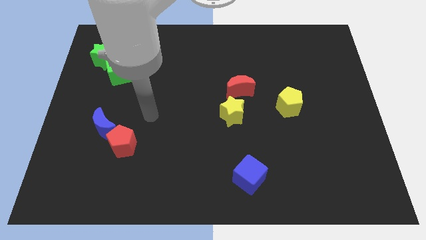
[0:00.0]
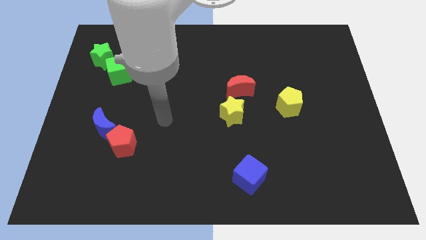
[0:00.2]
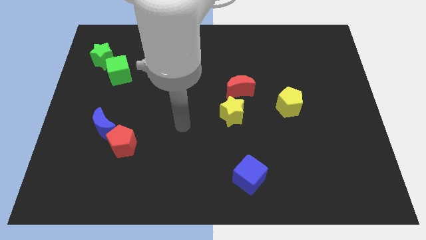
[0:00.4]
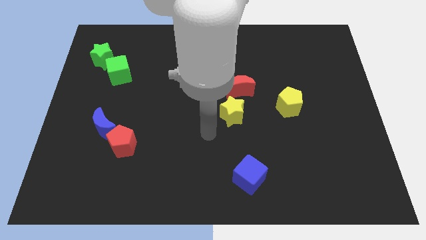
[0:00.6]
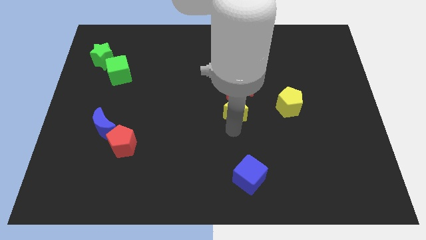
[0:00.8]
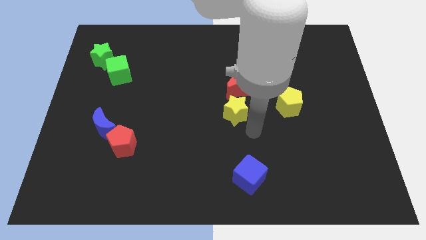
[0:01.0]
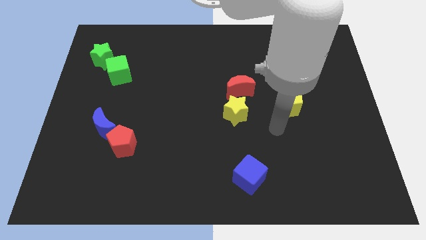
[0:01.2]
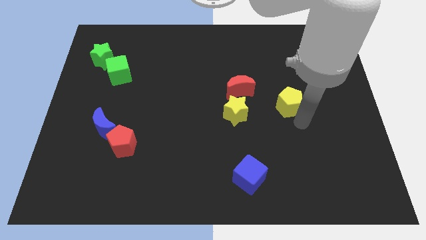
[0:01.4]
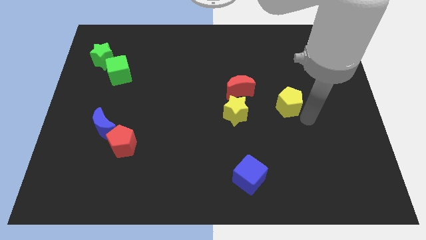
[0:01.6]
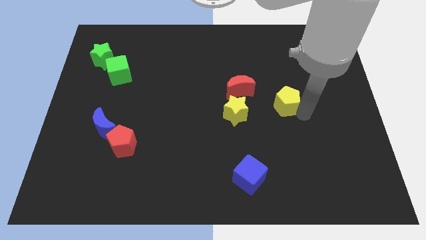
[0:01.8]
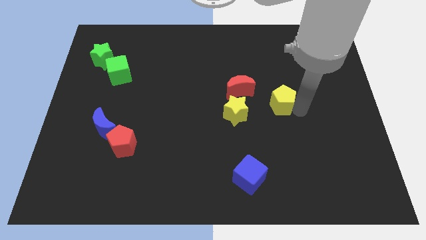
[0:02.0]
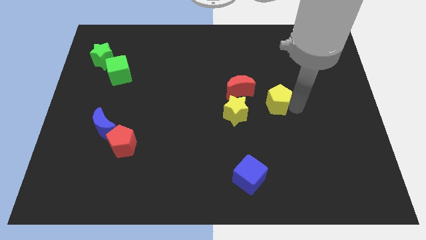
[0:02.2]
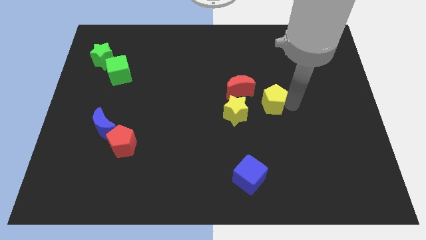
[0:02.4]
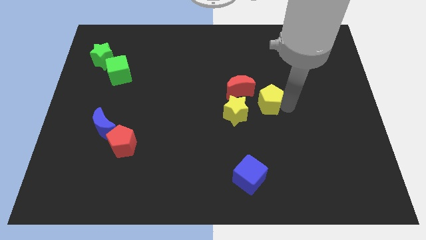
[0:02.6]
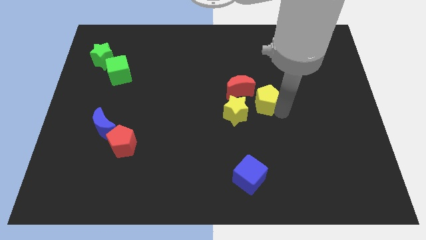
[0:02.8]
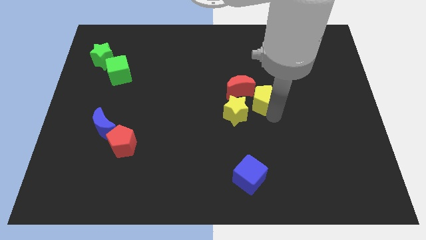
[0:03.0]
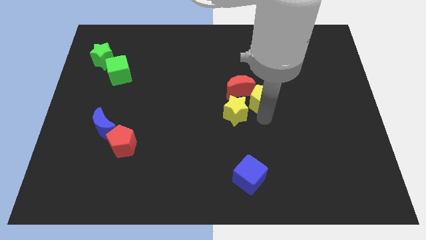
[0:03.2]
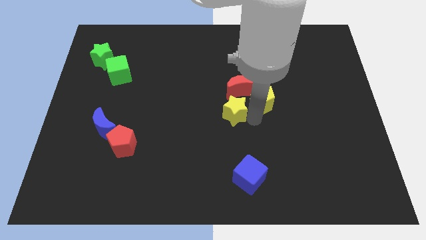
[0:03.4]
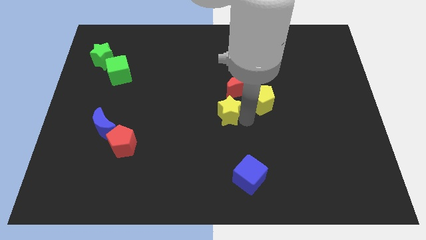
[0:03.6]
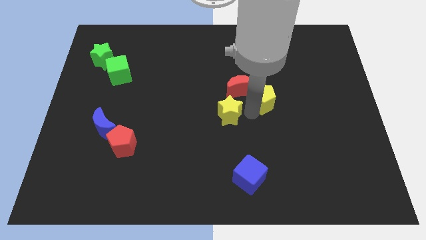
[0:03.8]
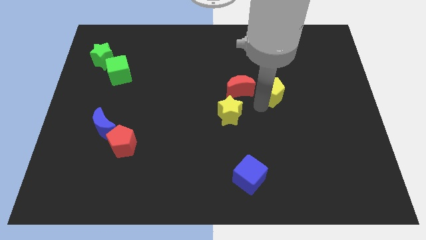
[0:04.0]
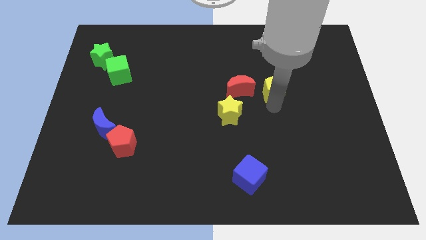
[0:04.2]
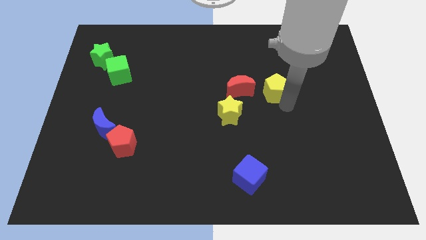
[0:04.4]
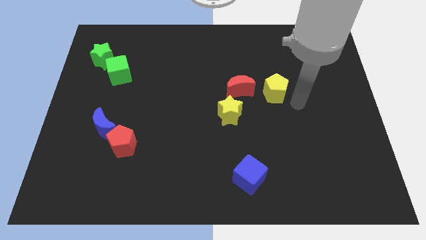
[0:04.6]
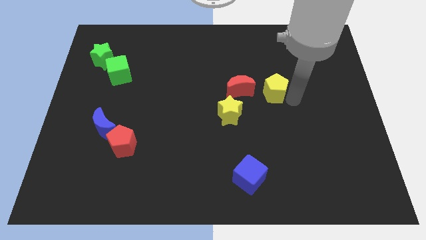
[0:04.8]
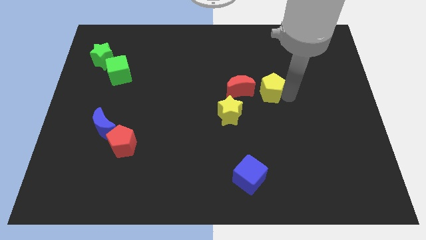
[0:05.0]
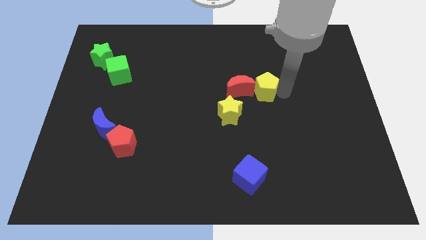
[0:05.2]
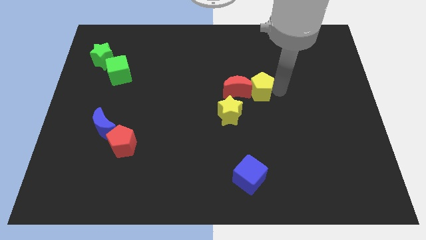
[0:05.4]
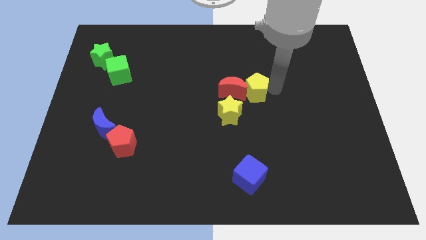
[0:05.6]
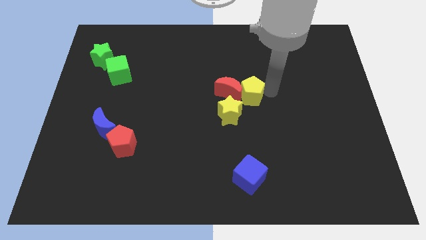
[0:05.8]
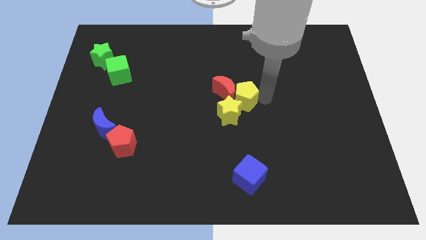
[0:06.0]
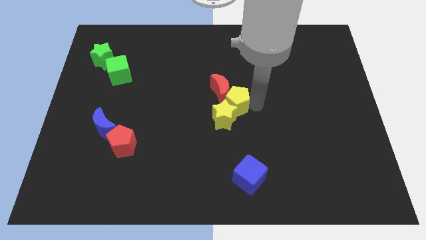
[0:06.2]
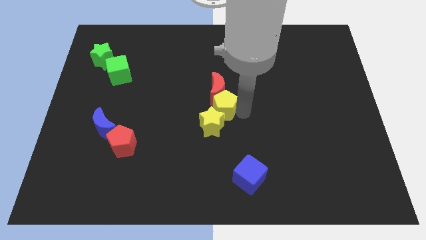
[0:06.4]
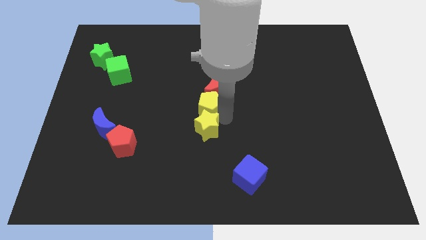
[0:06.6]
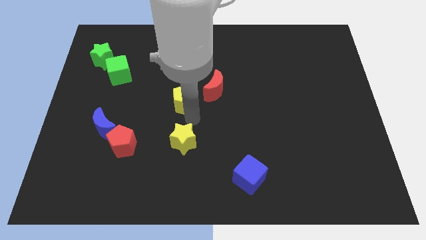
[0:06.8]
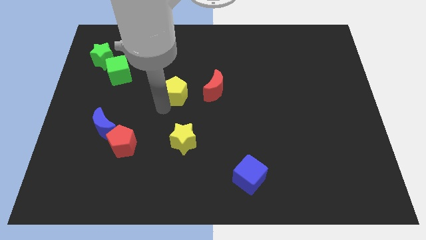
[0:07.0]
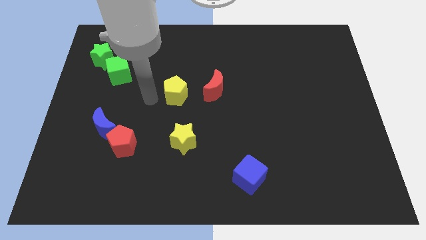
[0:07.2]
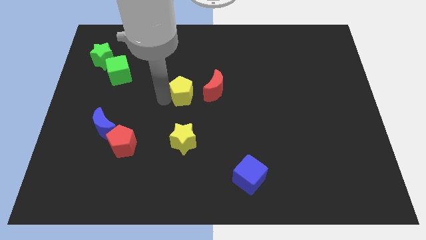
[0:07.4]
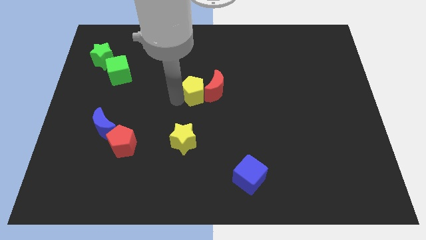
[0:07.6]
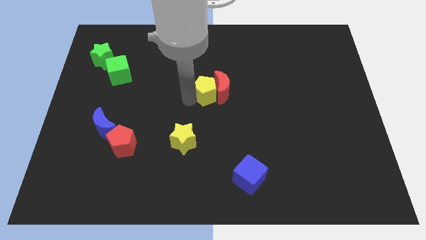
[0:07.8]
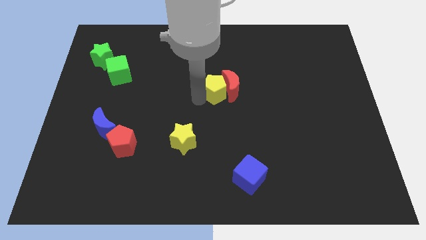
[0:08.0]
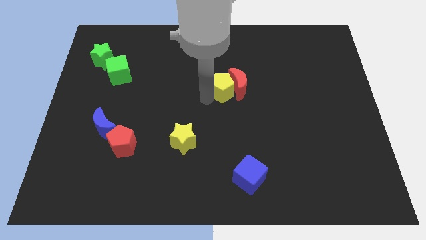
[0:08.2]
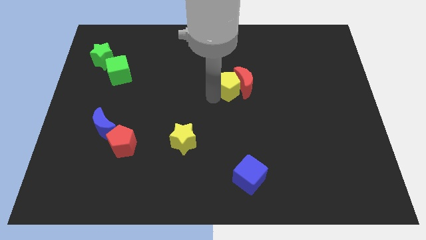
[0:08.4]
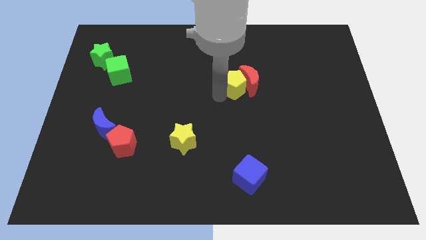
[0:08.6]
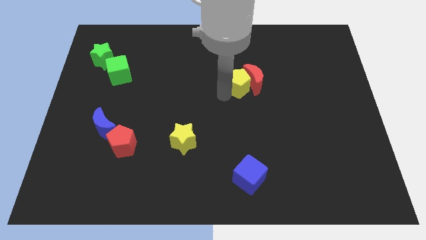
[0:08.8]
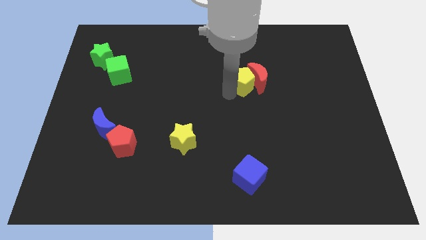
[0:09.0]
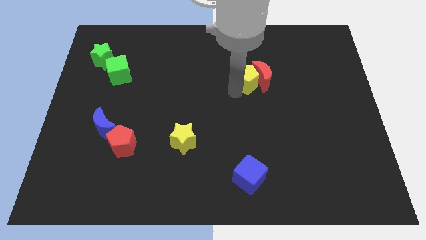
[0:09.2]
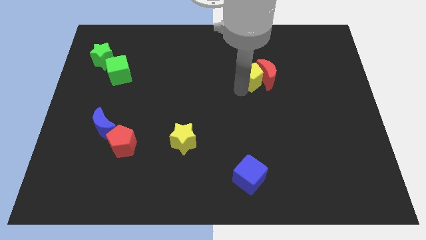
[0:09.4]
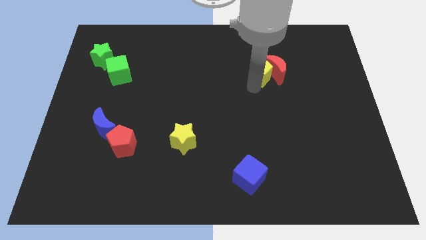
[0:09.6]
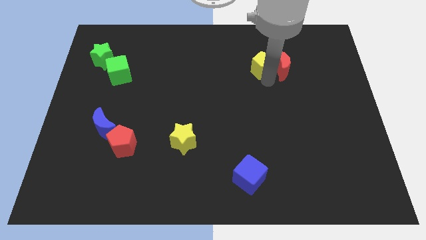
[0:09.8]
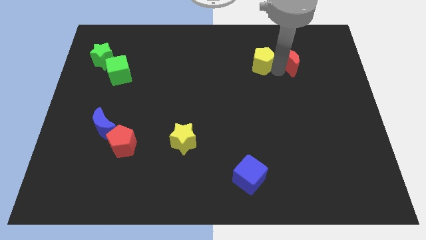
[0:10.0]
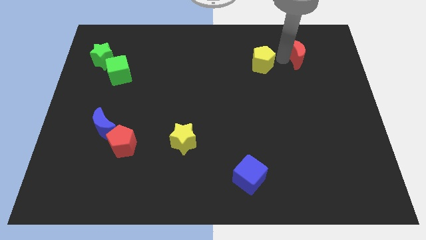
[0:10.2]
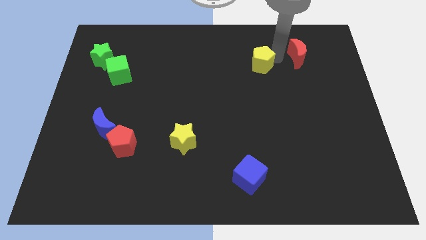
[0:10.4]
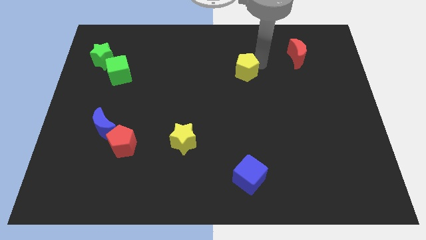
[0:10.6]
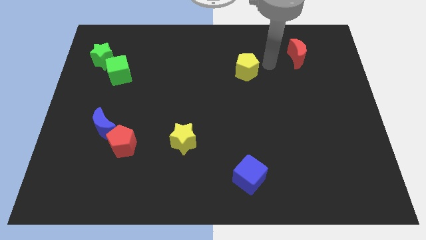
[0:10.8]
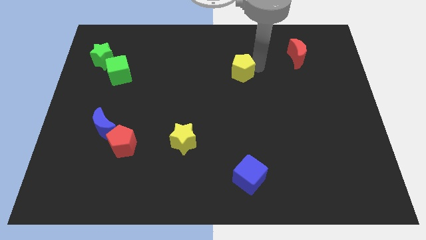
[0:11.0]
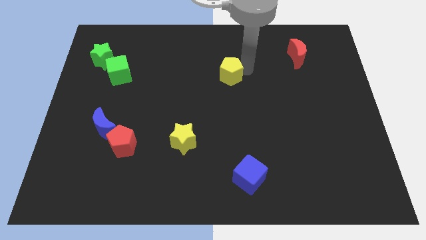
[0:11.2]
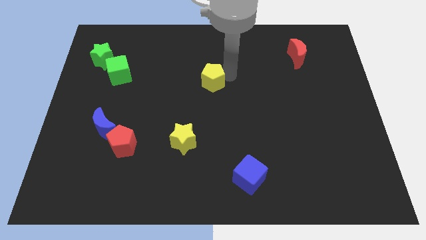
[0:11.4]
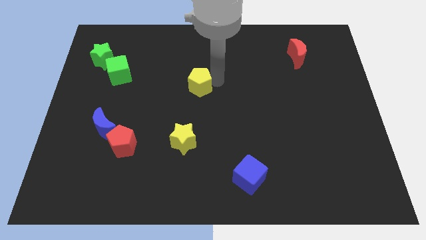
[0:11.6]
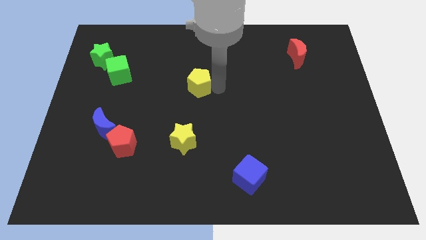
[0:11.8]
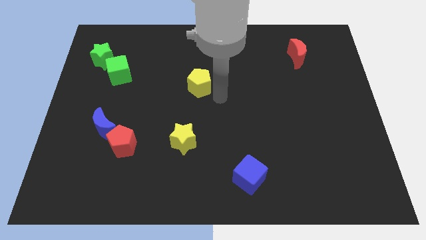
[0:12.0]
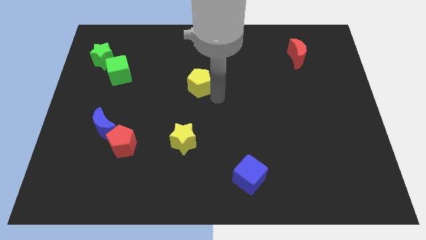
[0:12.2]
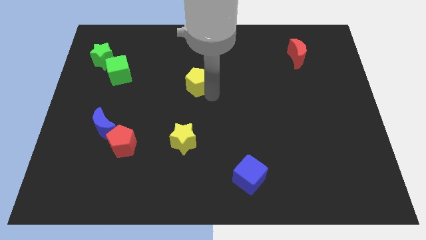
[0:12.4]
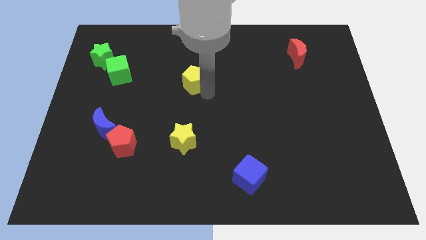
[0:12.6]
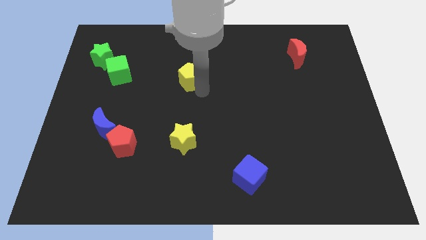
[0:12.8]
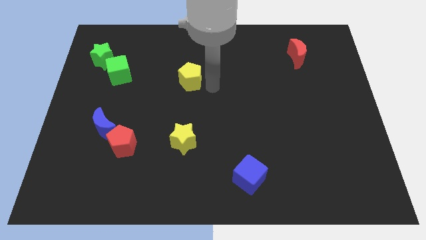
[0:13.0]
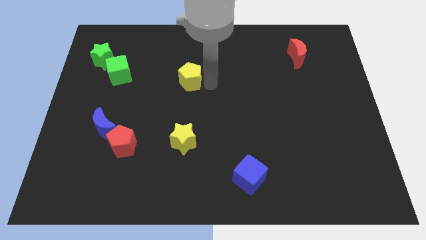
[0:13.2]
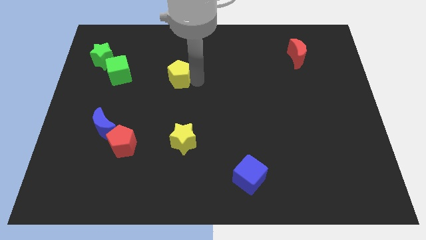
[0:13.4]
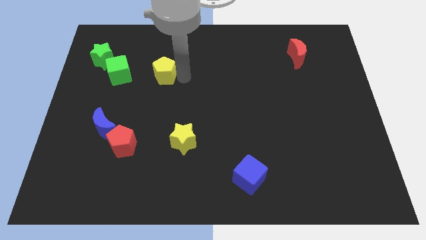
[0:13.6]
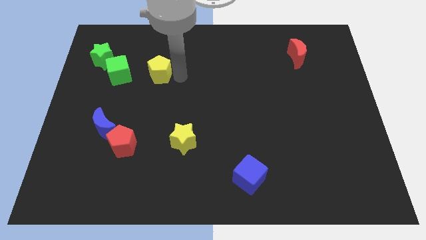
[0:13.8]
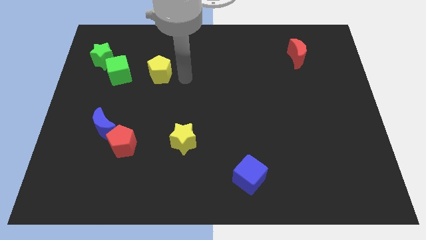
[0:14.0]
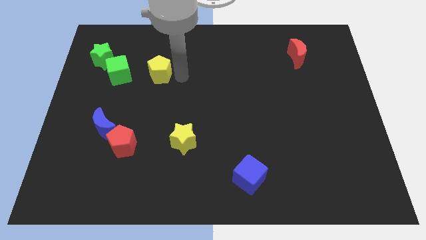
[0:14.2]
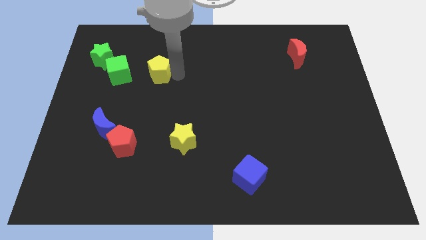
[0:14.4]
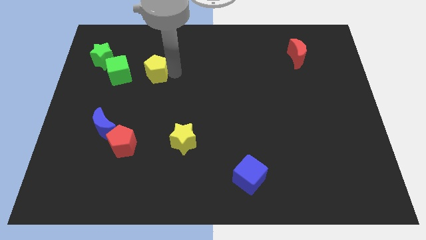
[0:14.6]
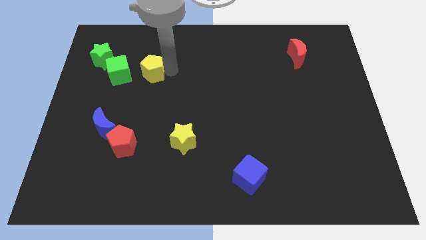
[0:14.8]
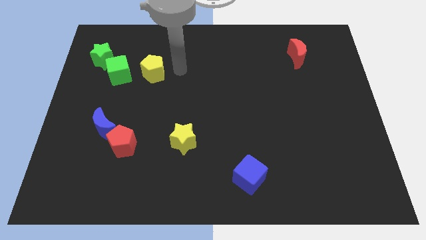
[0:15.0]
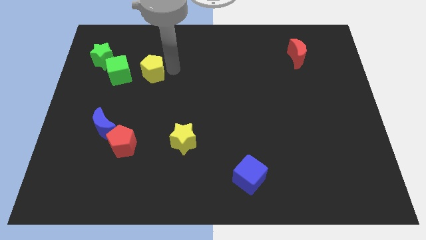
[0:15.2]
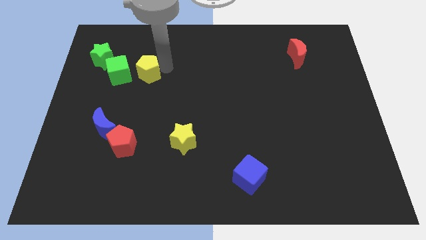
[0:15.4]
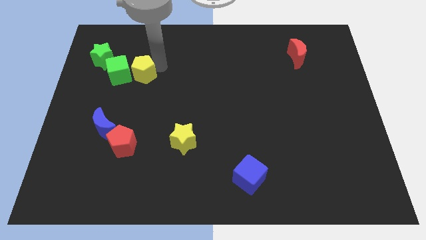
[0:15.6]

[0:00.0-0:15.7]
move the yellow pentagon to the green cube
